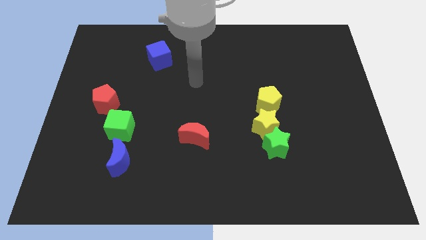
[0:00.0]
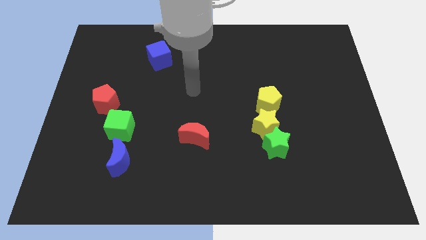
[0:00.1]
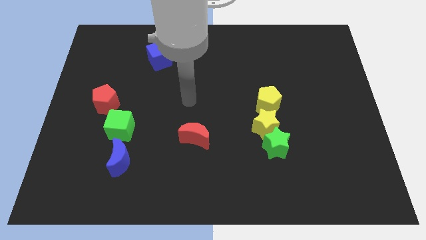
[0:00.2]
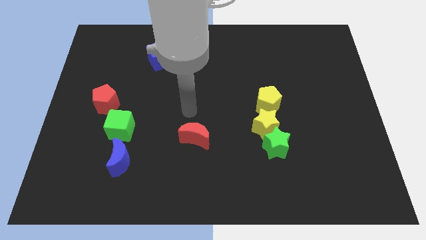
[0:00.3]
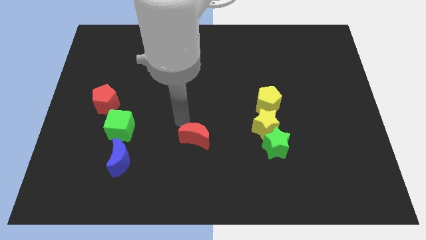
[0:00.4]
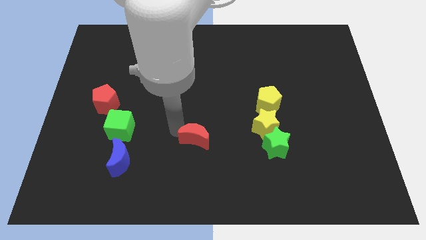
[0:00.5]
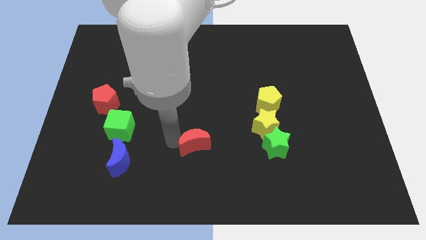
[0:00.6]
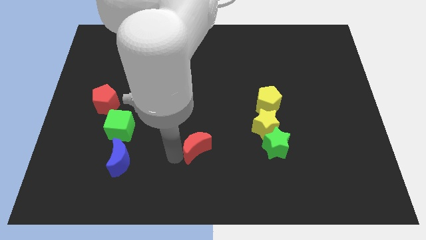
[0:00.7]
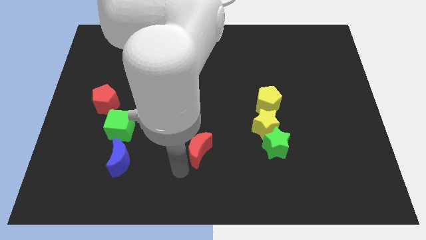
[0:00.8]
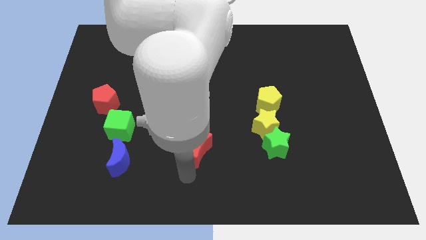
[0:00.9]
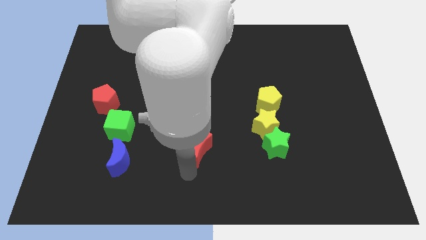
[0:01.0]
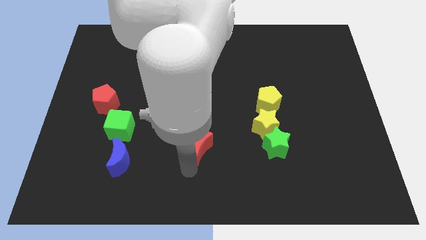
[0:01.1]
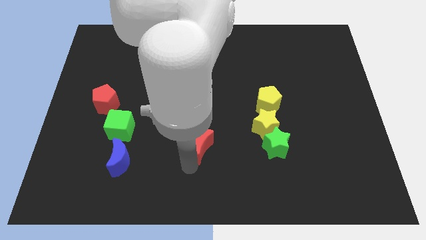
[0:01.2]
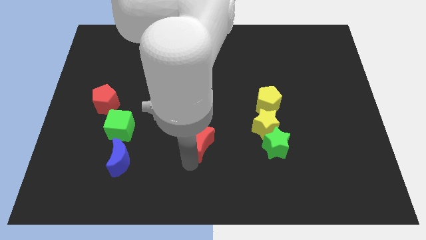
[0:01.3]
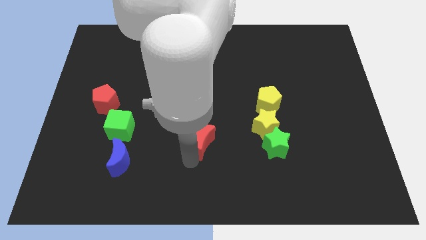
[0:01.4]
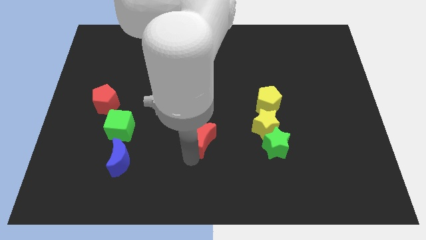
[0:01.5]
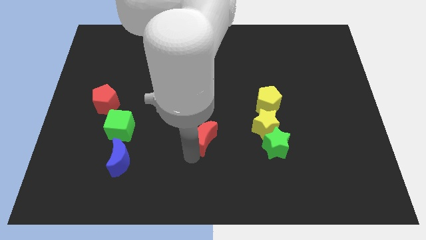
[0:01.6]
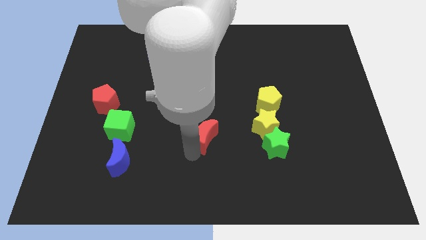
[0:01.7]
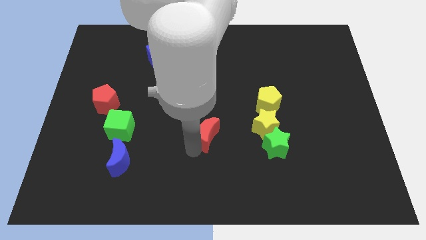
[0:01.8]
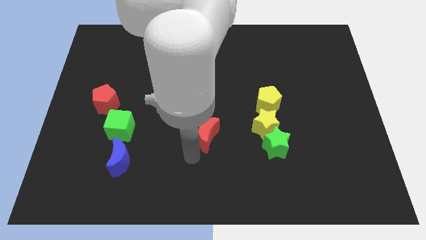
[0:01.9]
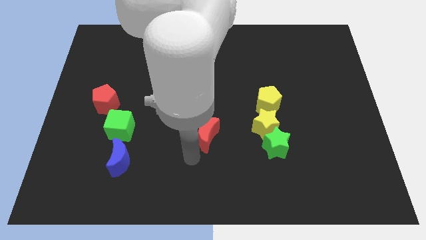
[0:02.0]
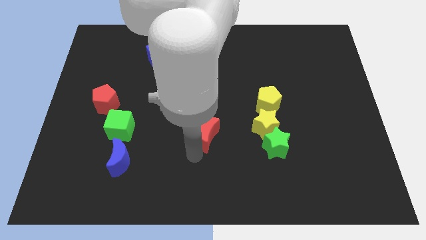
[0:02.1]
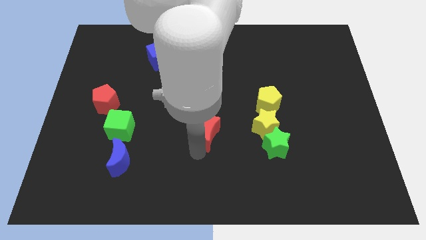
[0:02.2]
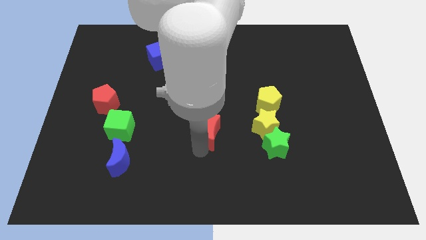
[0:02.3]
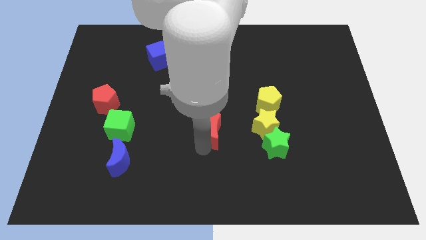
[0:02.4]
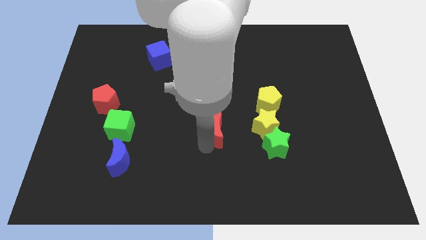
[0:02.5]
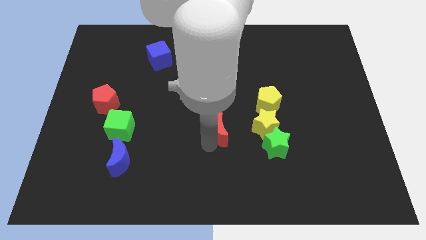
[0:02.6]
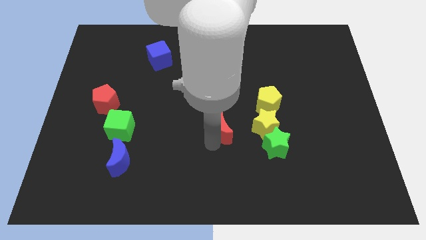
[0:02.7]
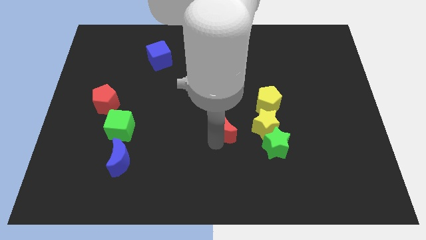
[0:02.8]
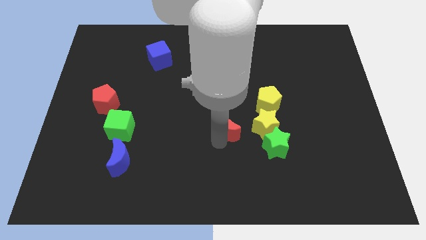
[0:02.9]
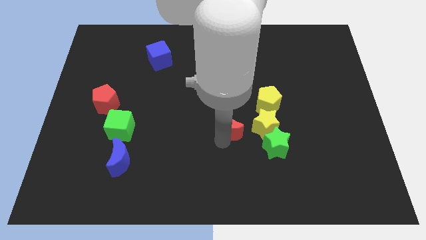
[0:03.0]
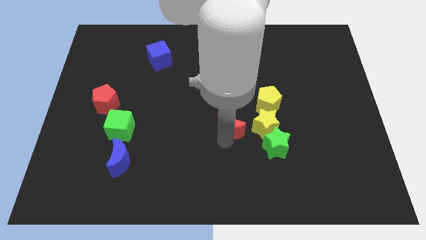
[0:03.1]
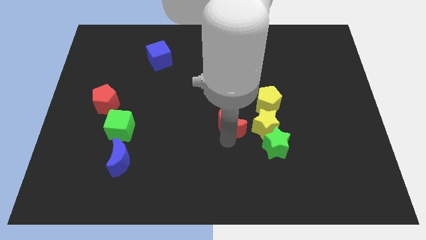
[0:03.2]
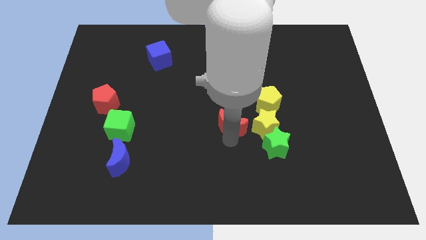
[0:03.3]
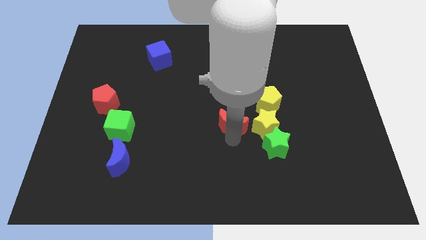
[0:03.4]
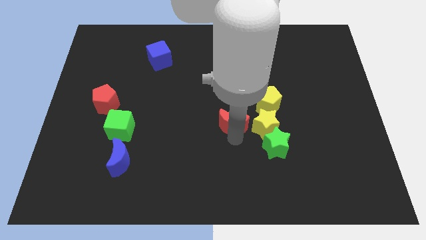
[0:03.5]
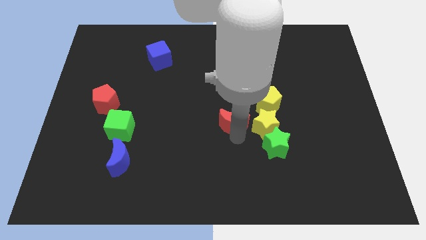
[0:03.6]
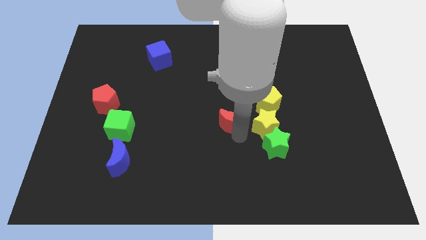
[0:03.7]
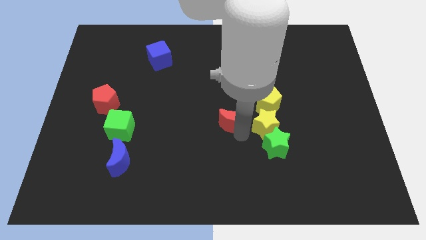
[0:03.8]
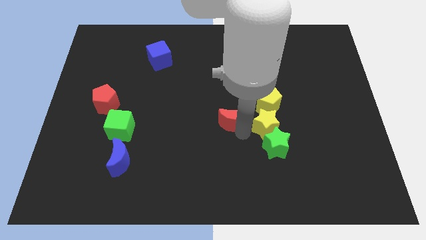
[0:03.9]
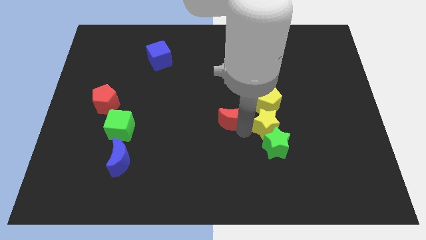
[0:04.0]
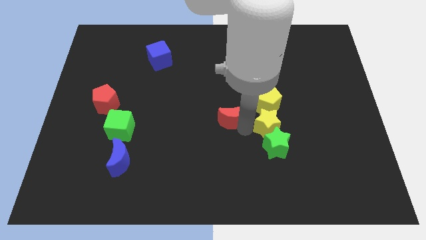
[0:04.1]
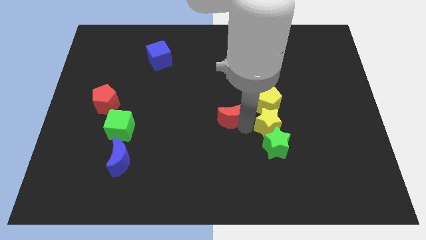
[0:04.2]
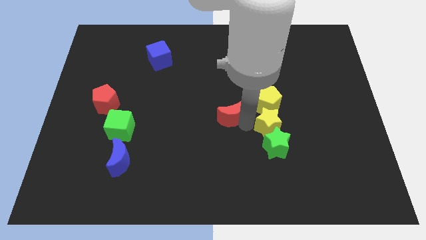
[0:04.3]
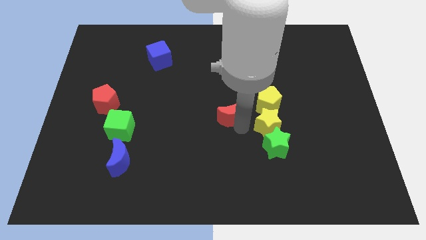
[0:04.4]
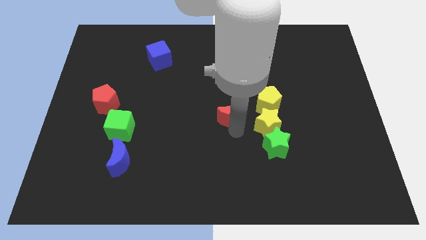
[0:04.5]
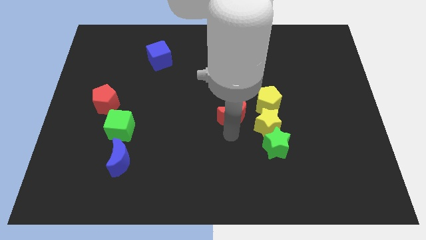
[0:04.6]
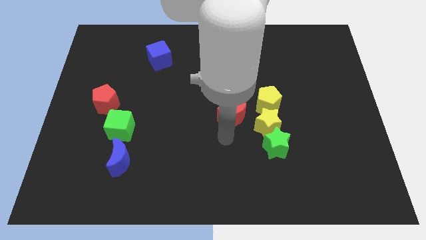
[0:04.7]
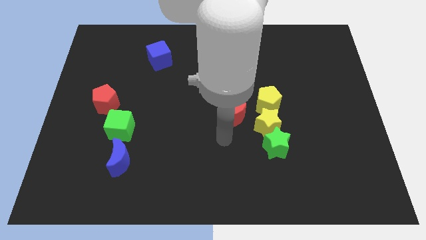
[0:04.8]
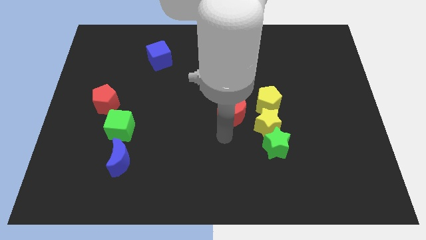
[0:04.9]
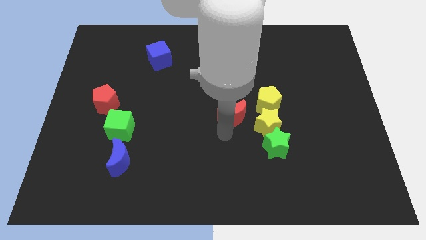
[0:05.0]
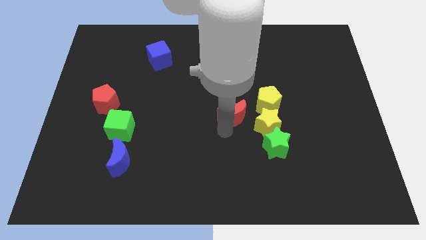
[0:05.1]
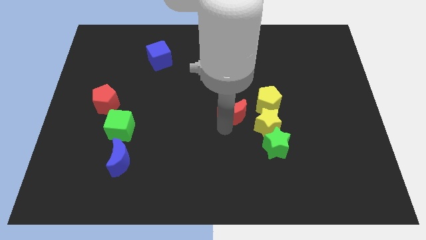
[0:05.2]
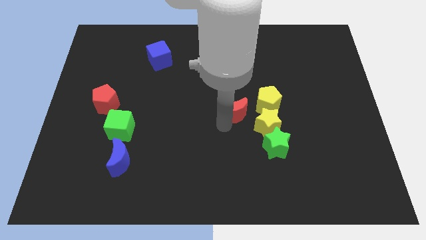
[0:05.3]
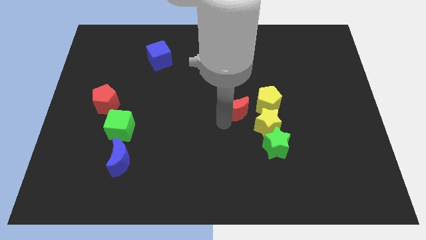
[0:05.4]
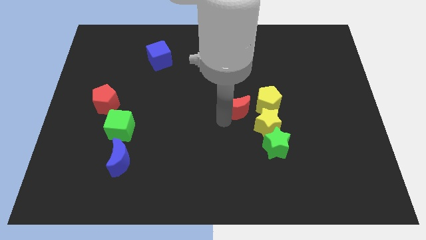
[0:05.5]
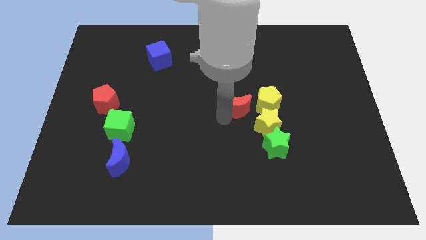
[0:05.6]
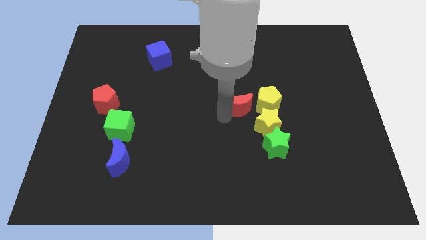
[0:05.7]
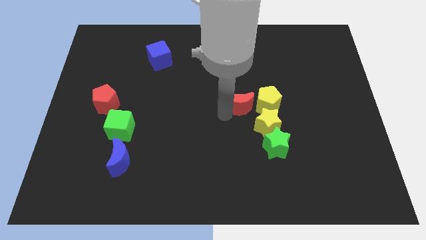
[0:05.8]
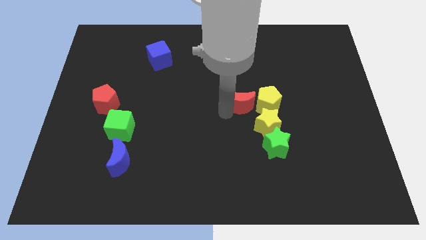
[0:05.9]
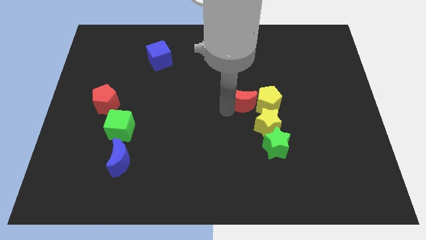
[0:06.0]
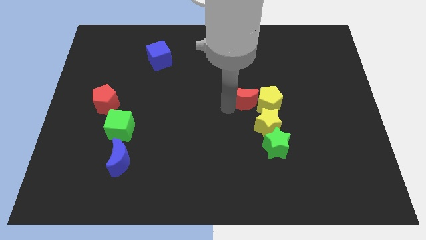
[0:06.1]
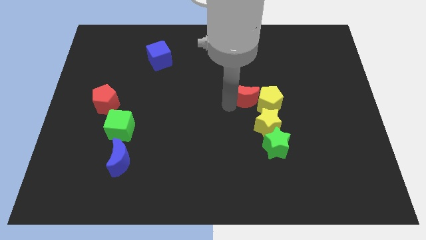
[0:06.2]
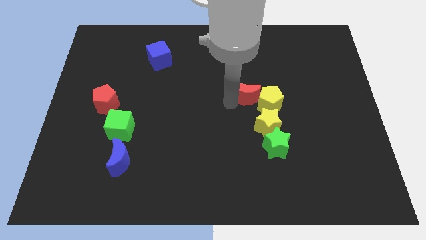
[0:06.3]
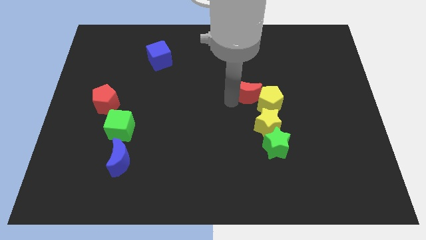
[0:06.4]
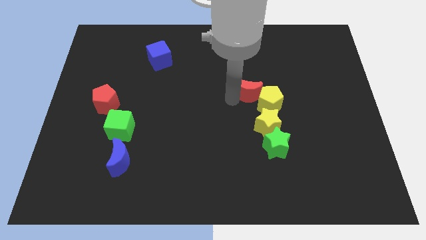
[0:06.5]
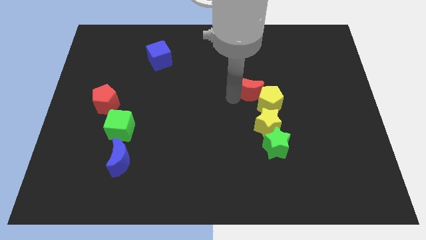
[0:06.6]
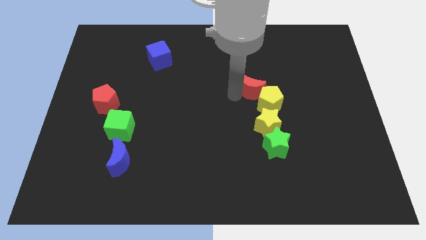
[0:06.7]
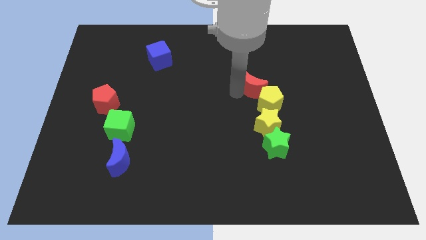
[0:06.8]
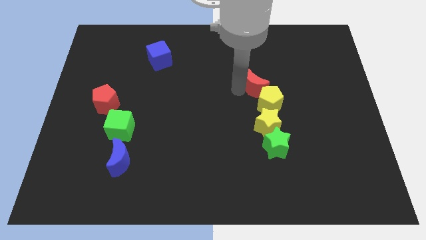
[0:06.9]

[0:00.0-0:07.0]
slide the red moon diagonally upwards and to the right

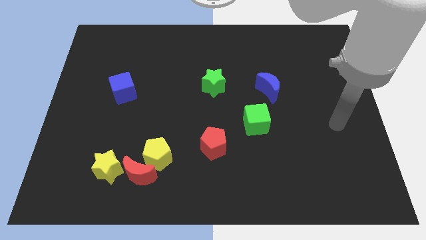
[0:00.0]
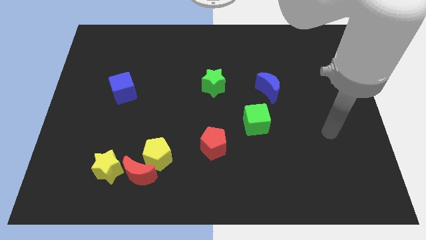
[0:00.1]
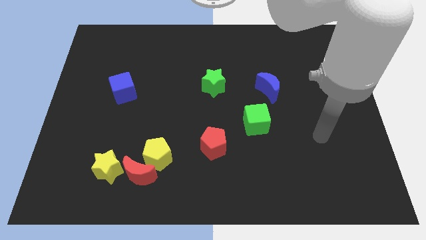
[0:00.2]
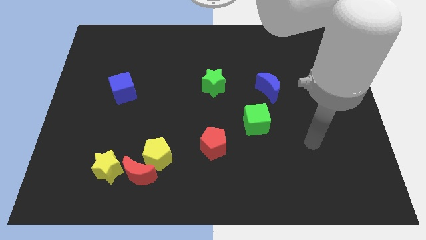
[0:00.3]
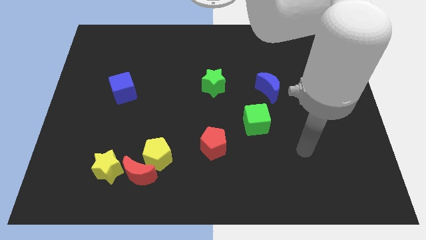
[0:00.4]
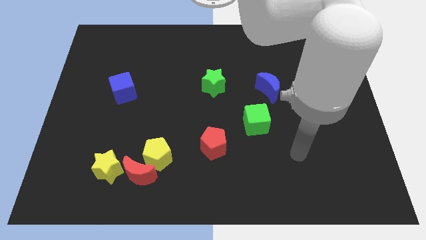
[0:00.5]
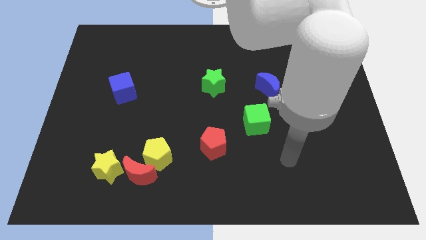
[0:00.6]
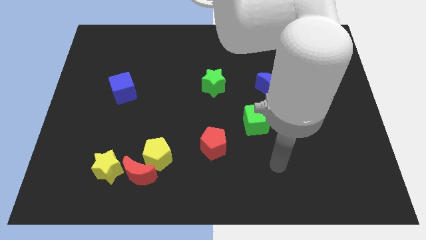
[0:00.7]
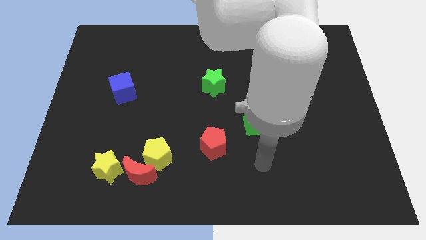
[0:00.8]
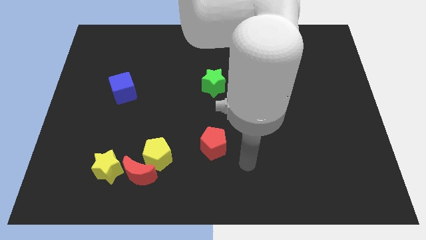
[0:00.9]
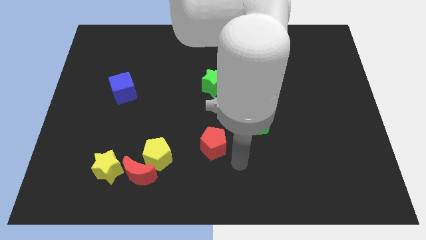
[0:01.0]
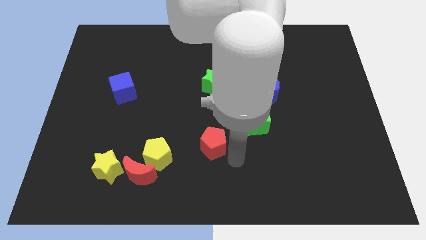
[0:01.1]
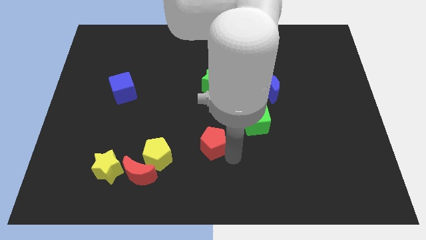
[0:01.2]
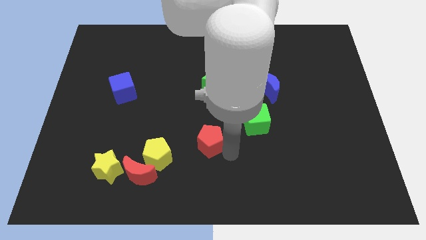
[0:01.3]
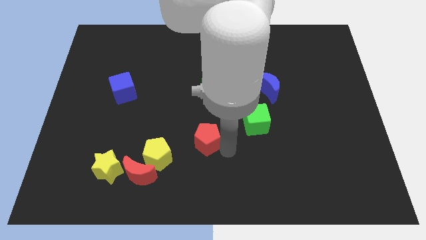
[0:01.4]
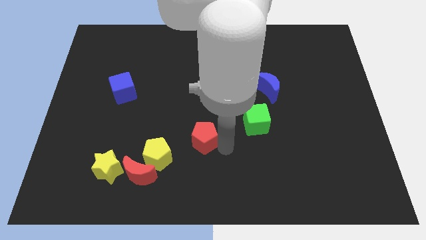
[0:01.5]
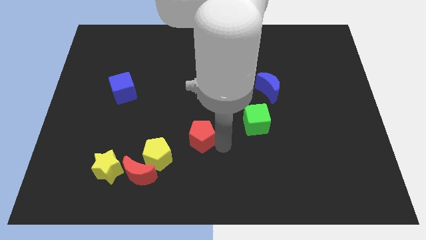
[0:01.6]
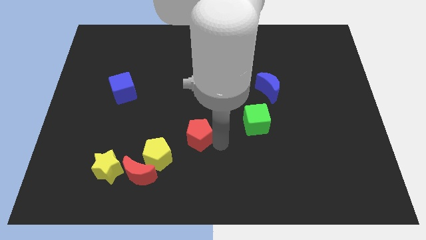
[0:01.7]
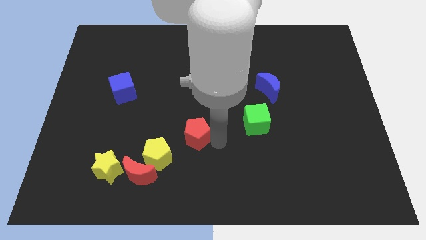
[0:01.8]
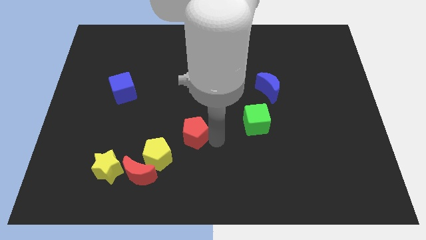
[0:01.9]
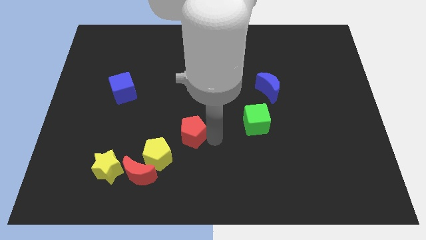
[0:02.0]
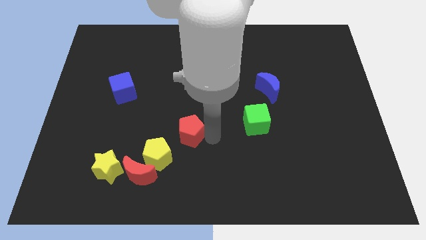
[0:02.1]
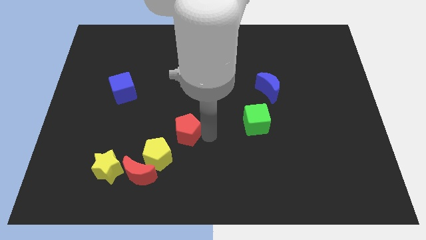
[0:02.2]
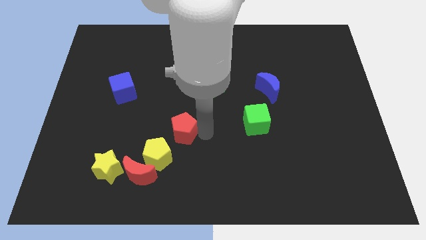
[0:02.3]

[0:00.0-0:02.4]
slightly push the red pentagon upwards and left
